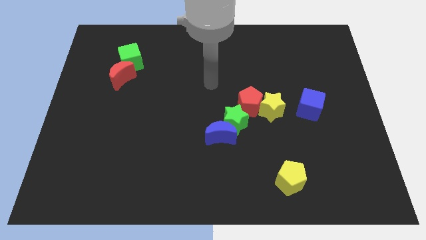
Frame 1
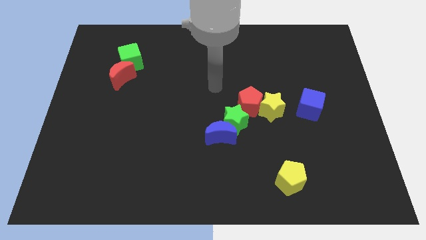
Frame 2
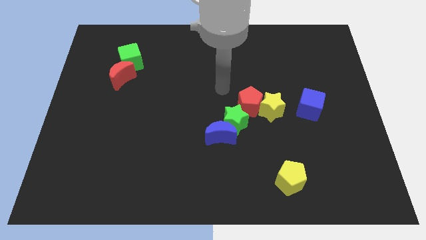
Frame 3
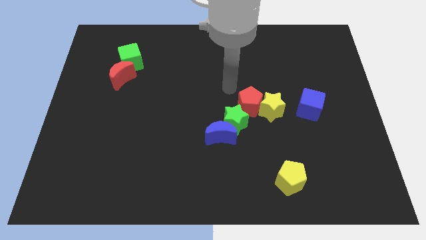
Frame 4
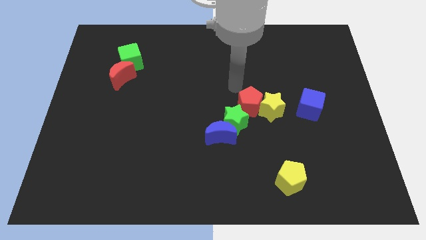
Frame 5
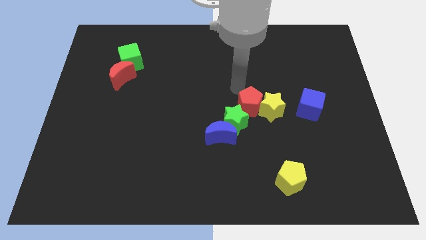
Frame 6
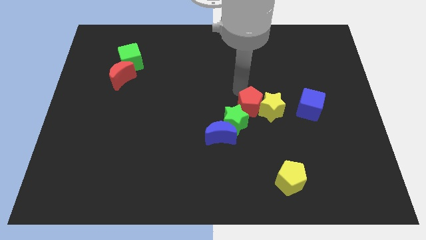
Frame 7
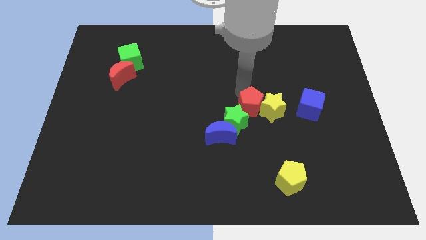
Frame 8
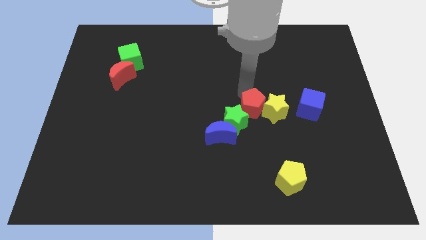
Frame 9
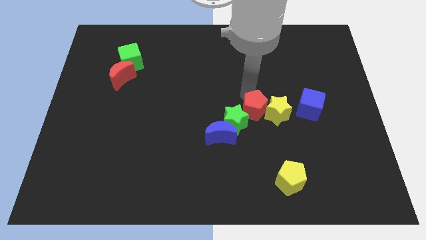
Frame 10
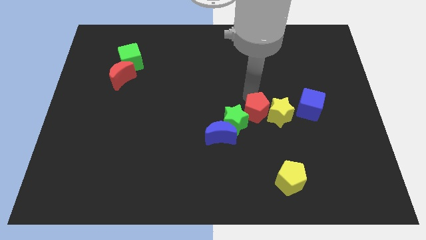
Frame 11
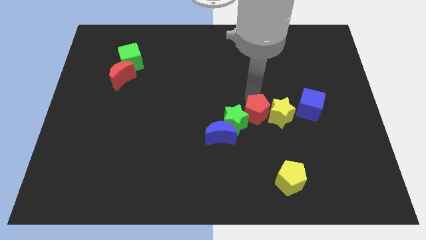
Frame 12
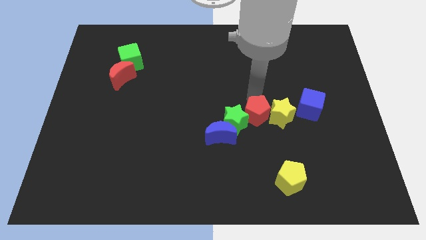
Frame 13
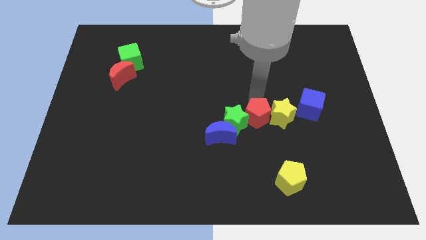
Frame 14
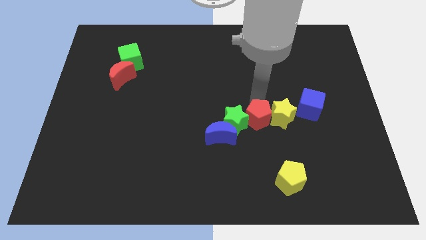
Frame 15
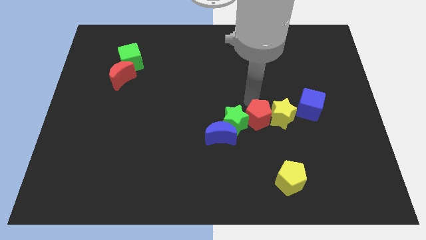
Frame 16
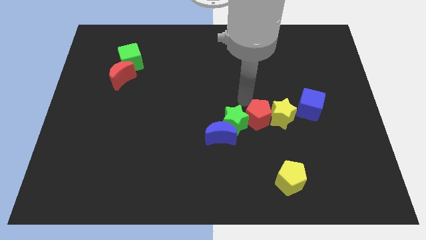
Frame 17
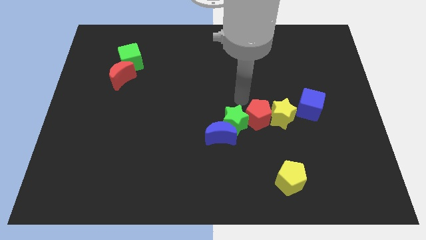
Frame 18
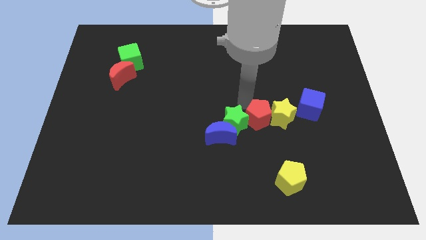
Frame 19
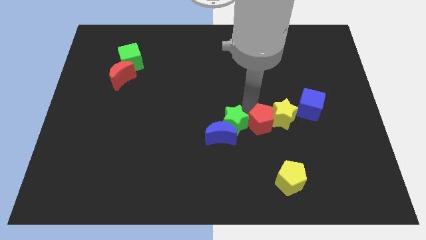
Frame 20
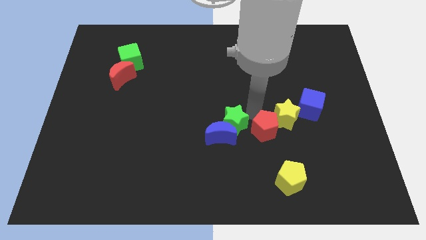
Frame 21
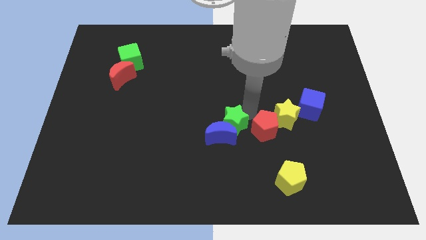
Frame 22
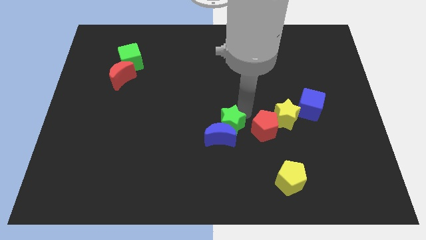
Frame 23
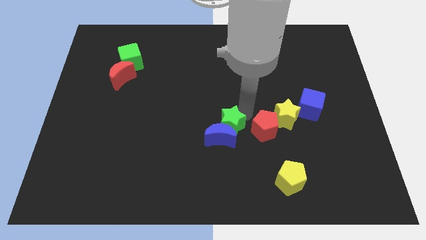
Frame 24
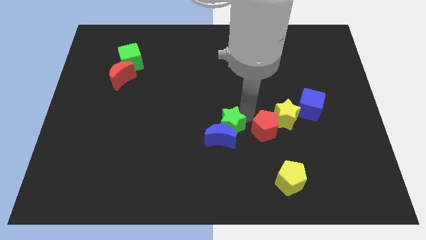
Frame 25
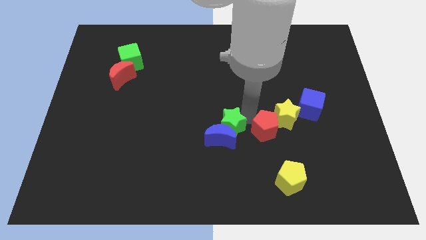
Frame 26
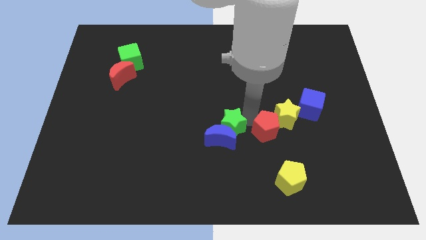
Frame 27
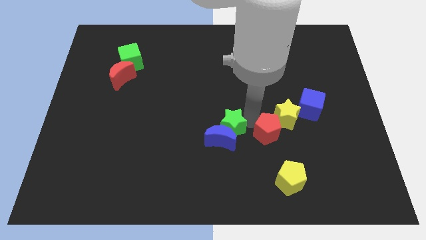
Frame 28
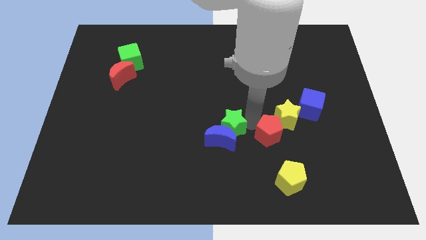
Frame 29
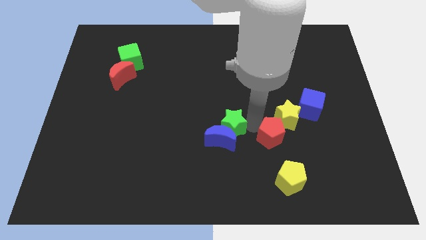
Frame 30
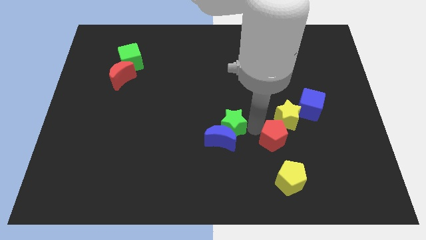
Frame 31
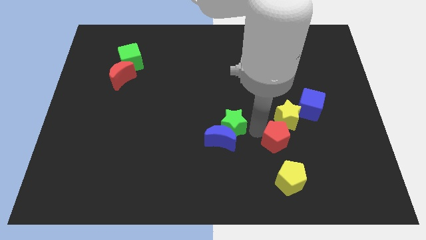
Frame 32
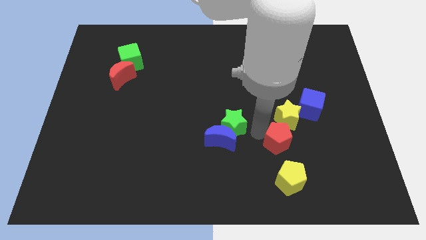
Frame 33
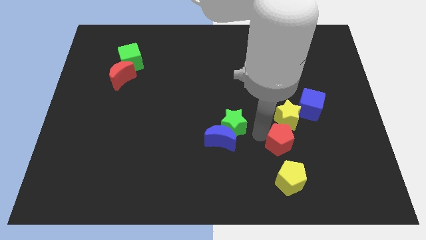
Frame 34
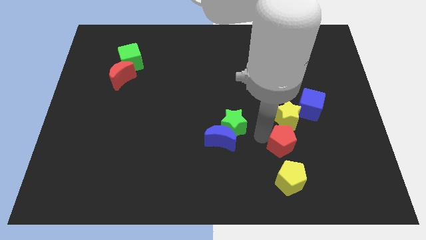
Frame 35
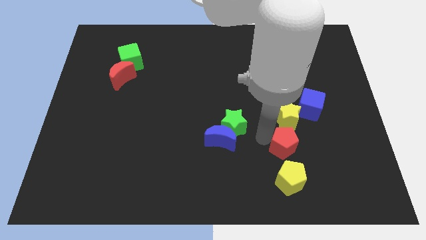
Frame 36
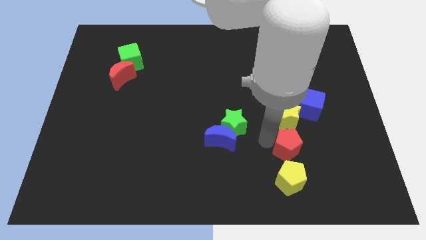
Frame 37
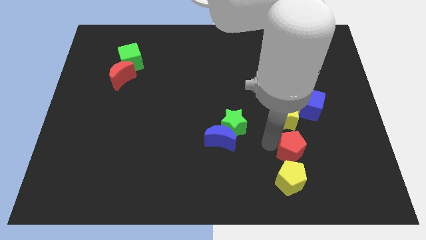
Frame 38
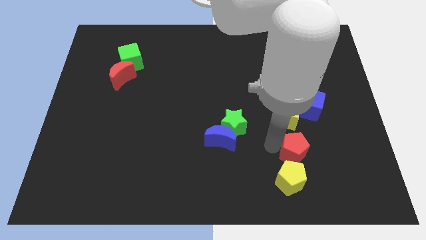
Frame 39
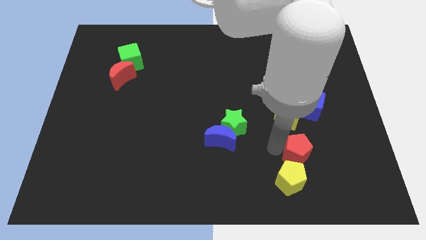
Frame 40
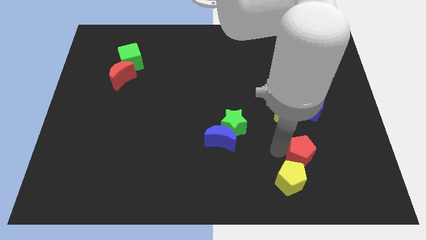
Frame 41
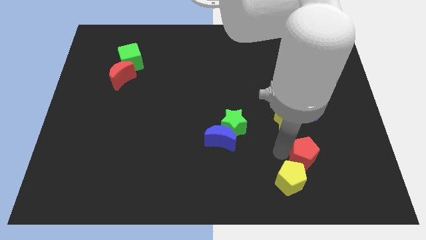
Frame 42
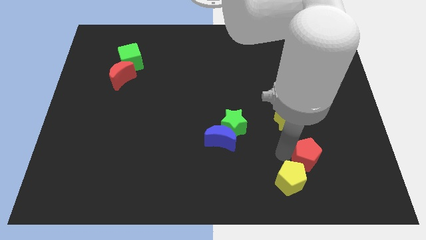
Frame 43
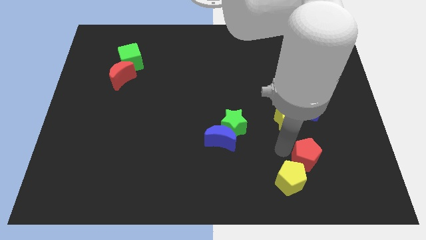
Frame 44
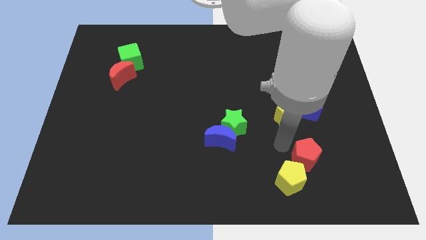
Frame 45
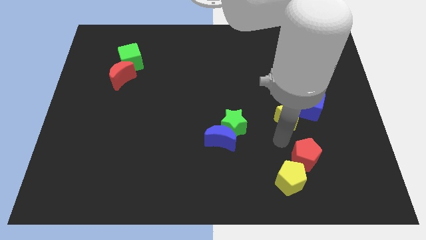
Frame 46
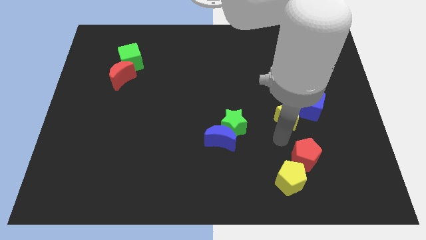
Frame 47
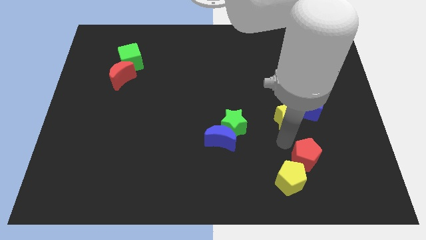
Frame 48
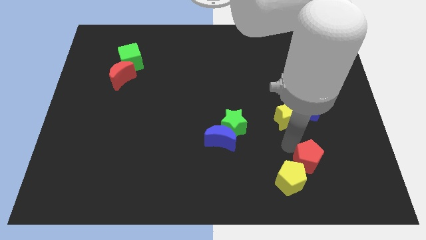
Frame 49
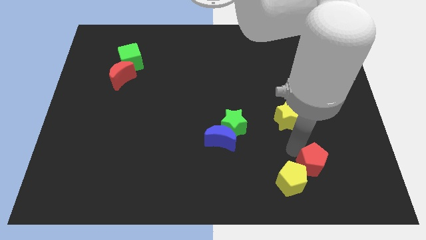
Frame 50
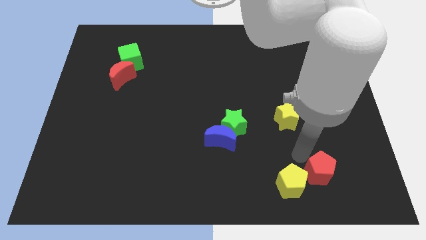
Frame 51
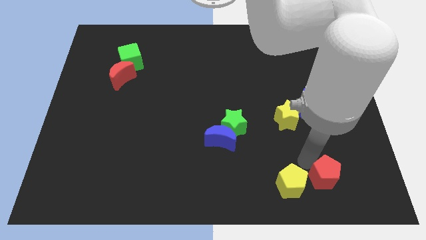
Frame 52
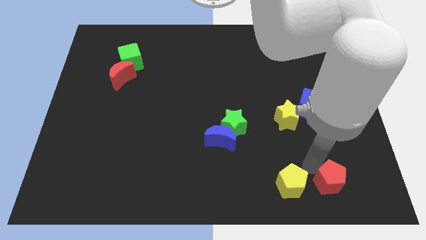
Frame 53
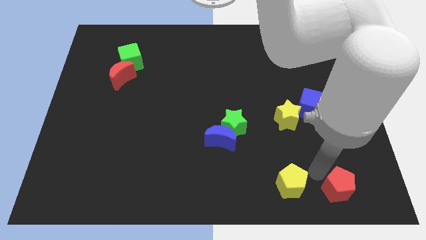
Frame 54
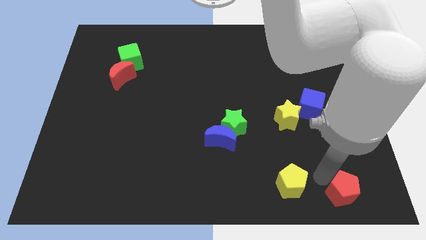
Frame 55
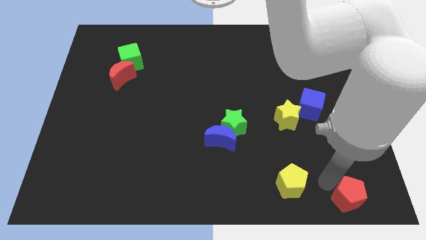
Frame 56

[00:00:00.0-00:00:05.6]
move the red pentagon to the bottom right of the board
